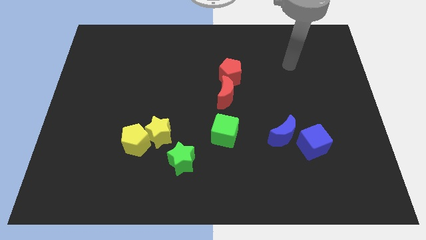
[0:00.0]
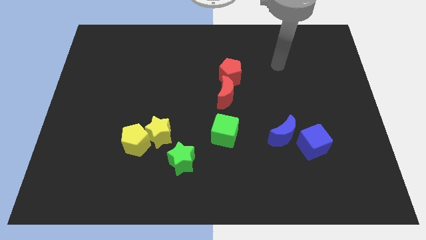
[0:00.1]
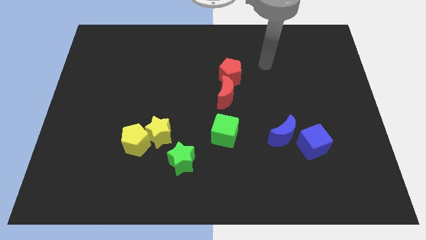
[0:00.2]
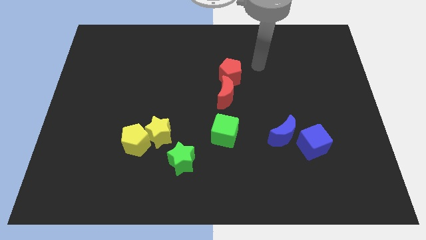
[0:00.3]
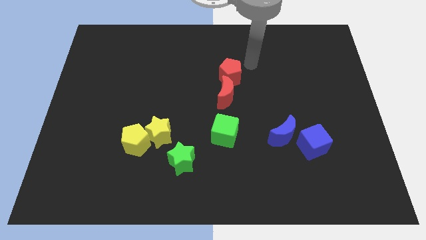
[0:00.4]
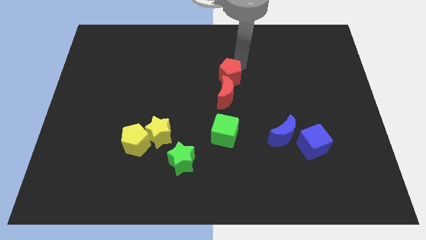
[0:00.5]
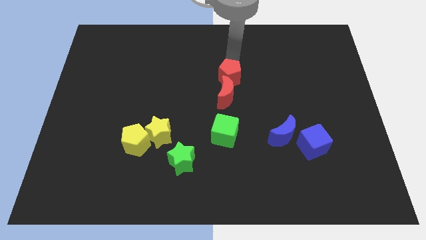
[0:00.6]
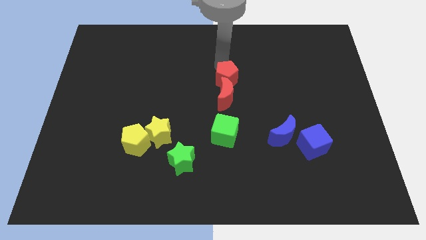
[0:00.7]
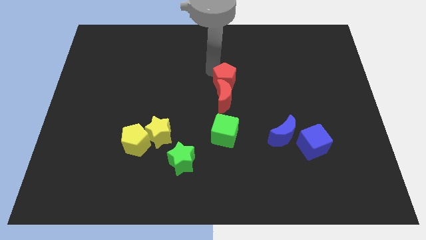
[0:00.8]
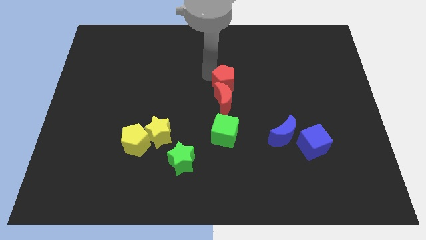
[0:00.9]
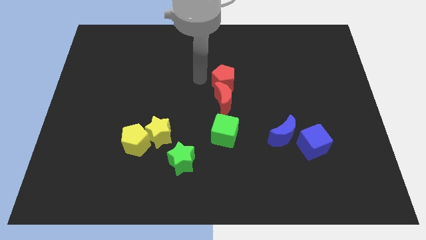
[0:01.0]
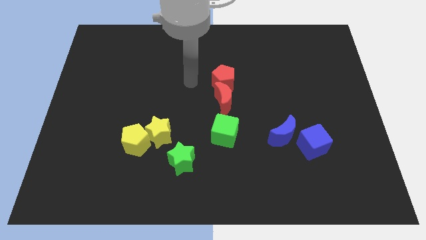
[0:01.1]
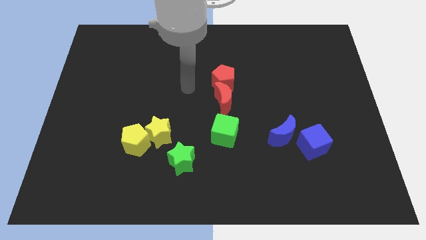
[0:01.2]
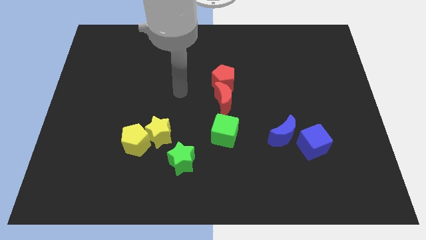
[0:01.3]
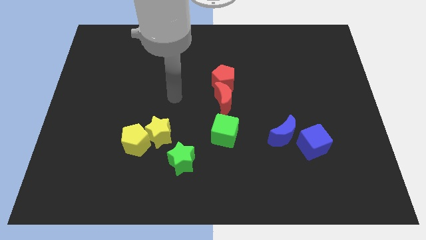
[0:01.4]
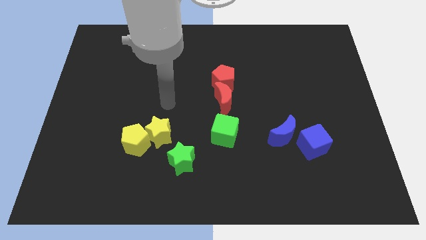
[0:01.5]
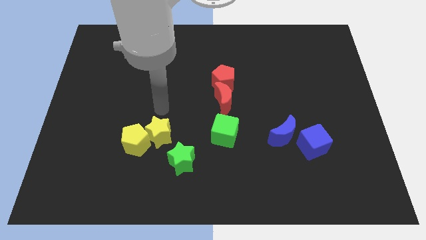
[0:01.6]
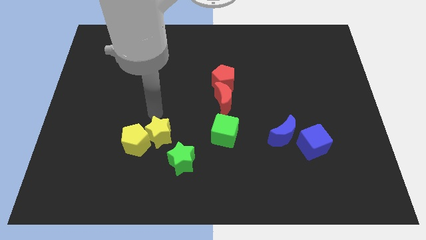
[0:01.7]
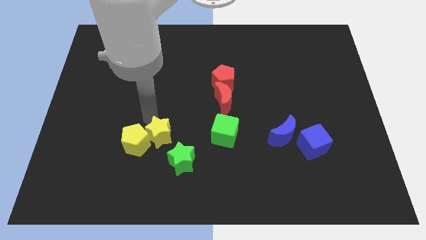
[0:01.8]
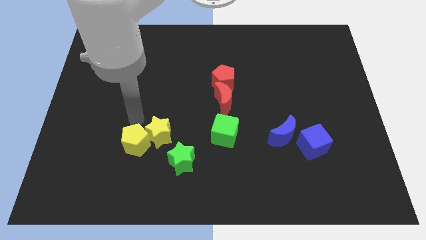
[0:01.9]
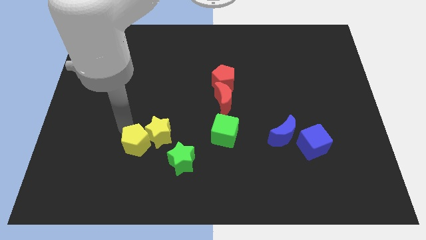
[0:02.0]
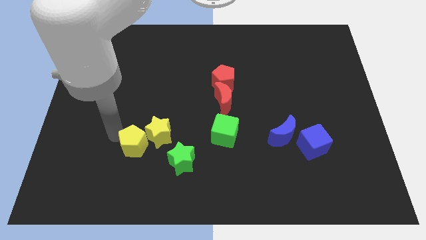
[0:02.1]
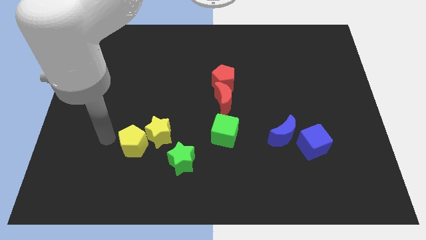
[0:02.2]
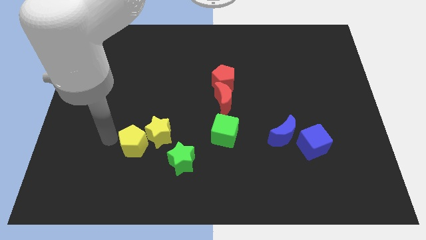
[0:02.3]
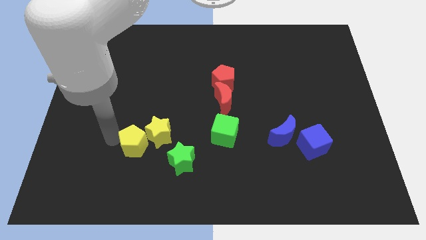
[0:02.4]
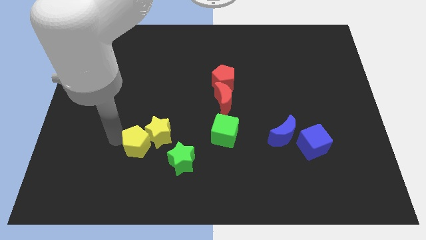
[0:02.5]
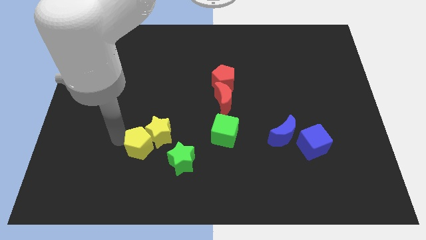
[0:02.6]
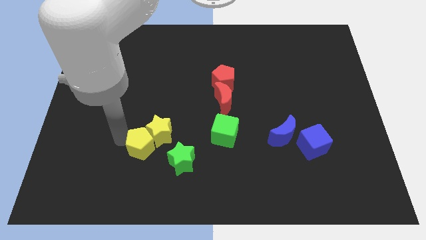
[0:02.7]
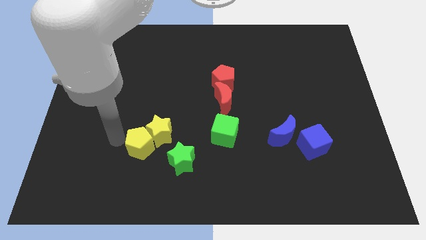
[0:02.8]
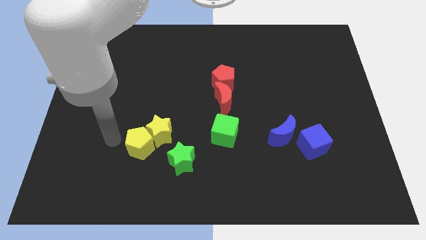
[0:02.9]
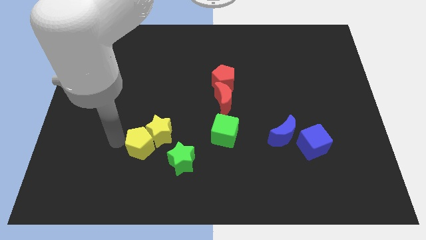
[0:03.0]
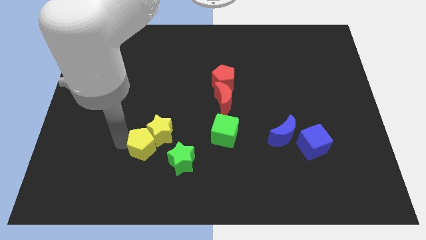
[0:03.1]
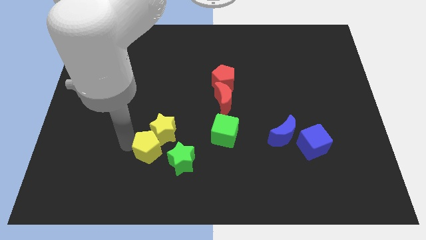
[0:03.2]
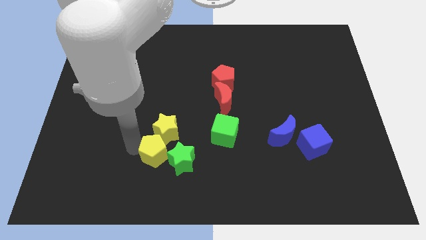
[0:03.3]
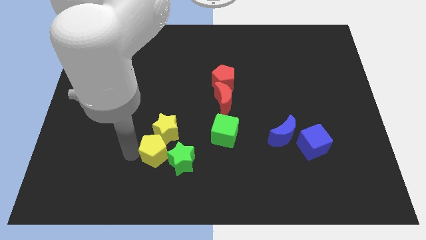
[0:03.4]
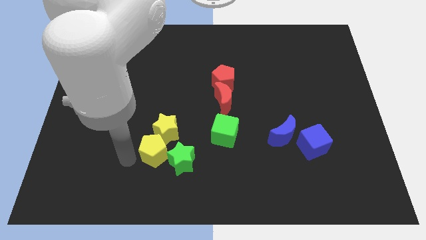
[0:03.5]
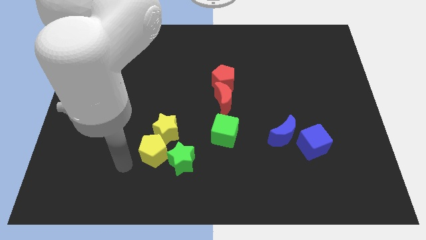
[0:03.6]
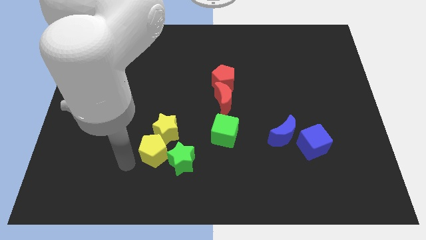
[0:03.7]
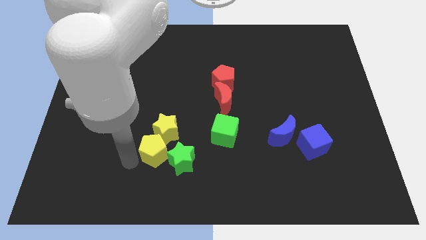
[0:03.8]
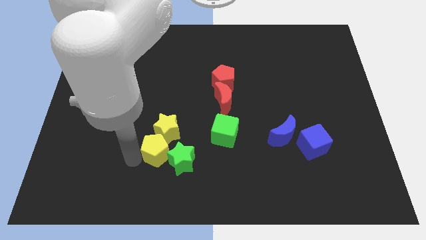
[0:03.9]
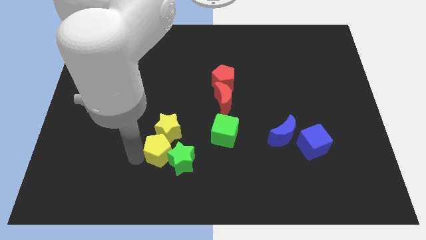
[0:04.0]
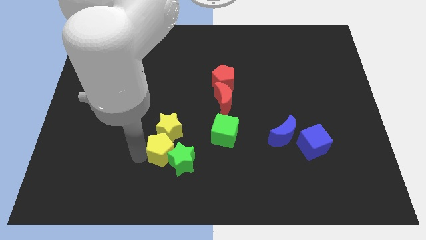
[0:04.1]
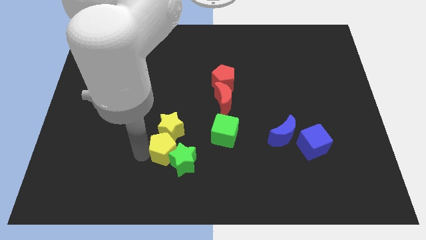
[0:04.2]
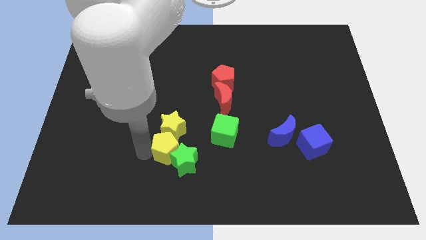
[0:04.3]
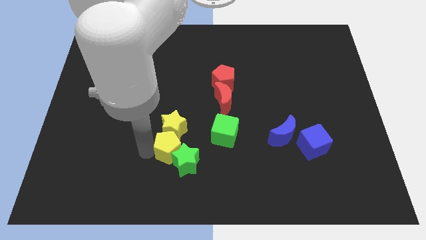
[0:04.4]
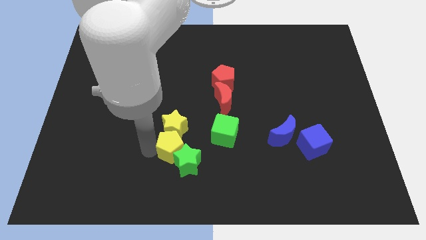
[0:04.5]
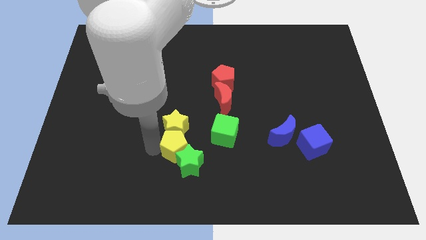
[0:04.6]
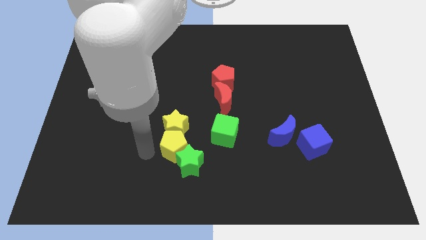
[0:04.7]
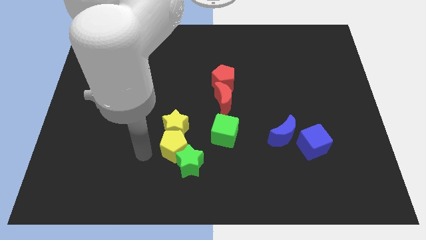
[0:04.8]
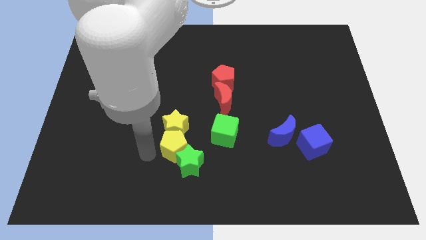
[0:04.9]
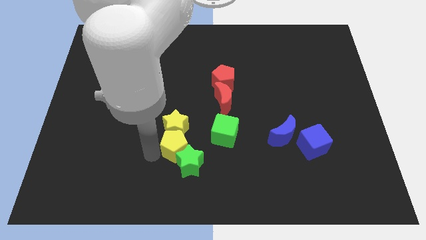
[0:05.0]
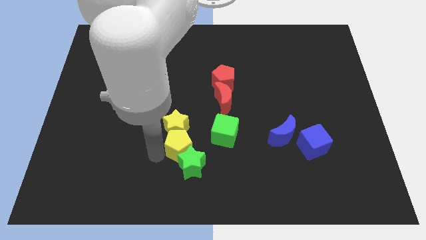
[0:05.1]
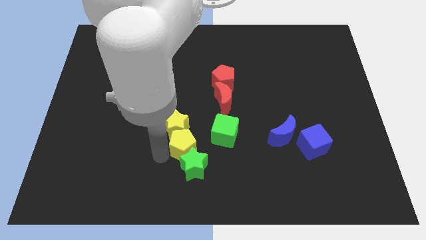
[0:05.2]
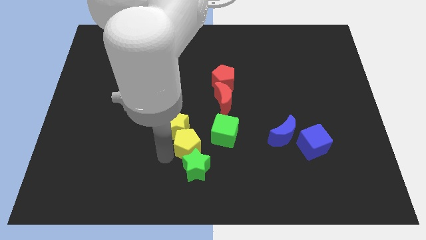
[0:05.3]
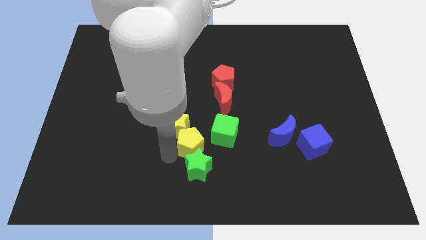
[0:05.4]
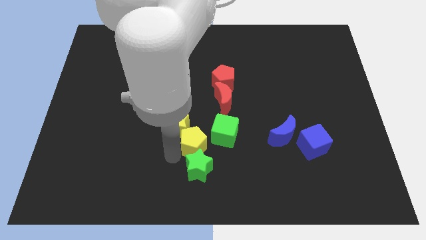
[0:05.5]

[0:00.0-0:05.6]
push the yellow pentagon to the top right of the green star

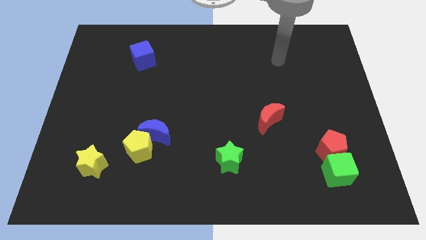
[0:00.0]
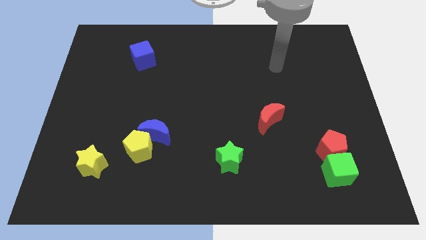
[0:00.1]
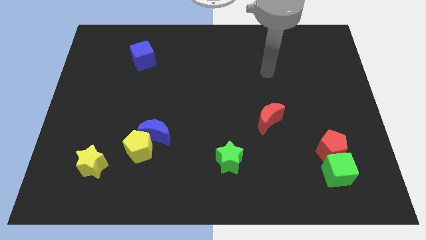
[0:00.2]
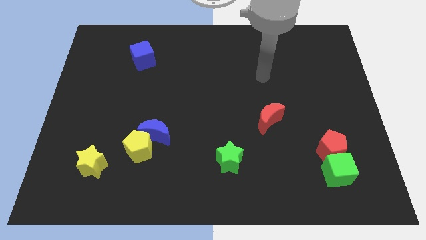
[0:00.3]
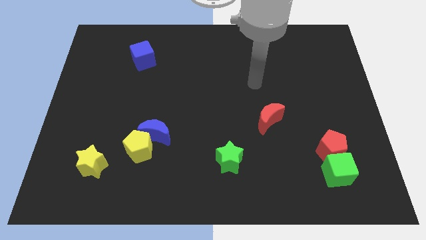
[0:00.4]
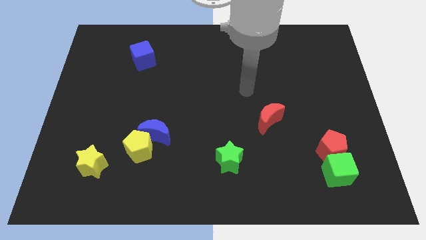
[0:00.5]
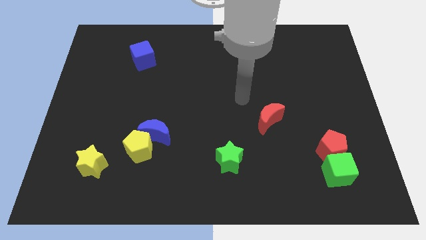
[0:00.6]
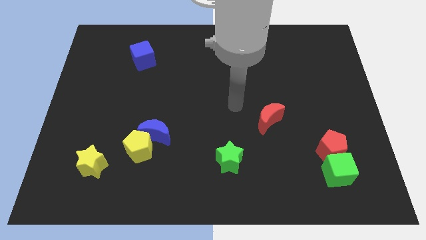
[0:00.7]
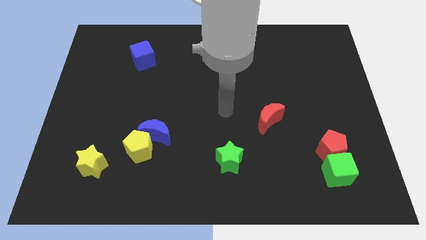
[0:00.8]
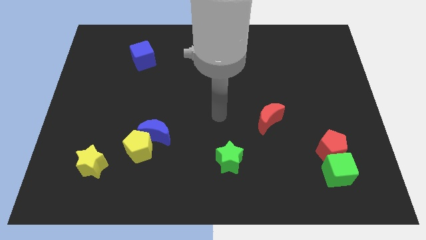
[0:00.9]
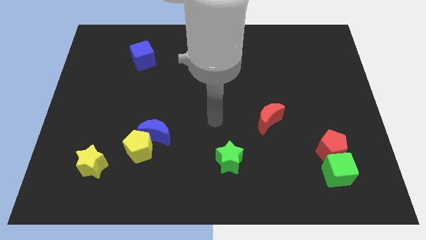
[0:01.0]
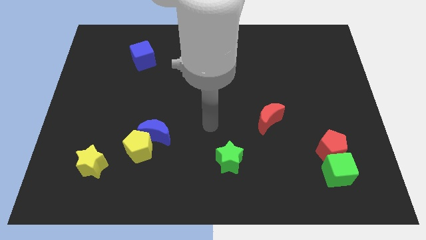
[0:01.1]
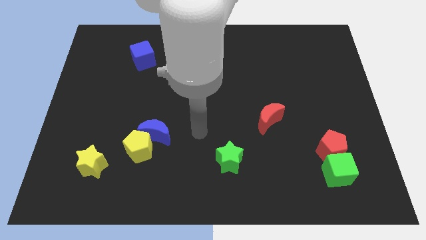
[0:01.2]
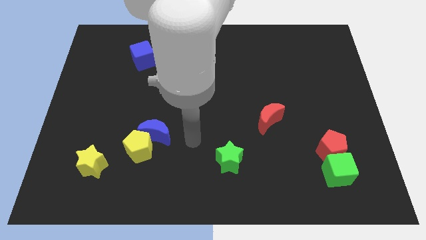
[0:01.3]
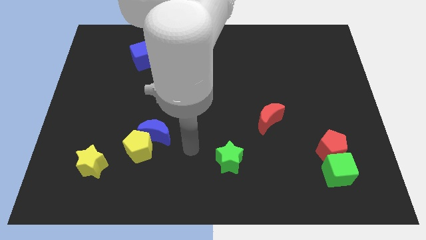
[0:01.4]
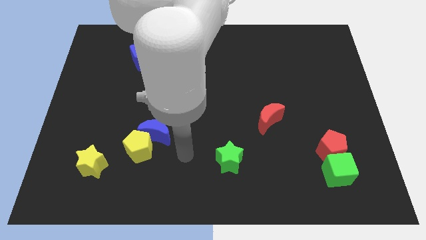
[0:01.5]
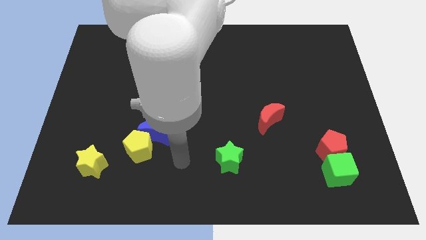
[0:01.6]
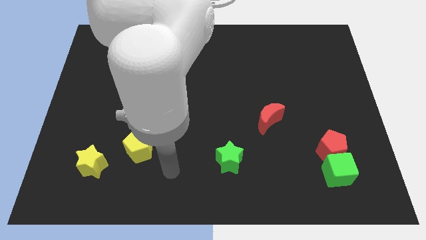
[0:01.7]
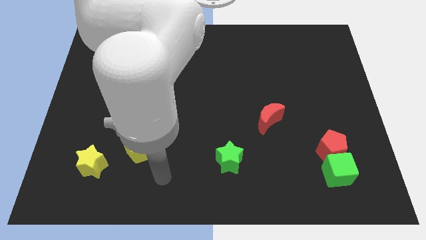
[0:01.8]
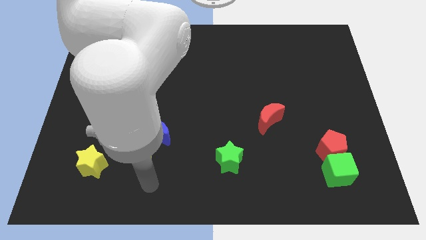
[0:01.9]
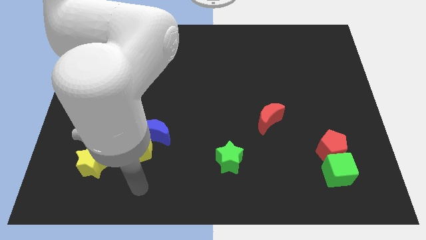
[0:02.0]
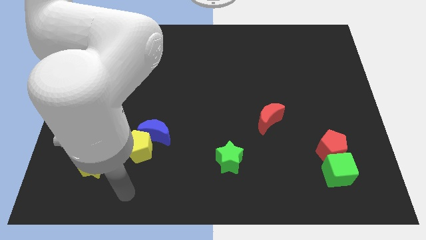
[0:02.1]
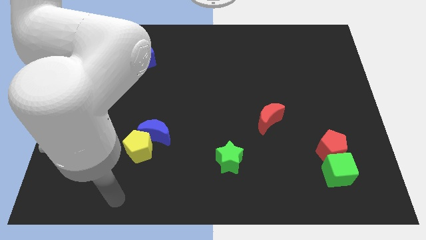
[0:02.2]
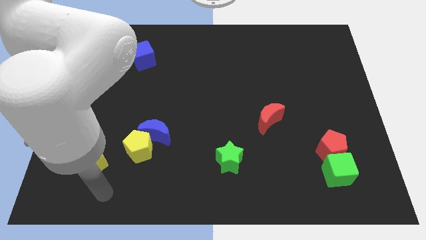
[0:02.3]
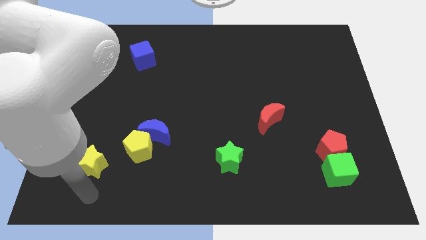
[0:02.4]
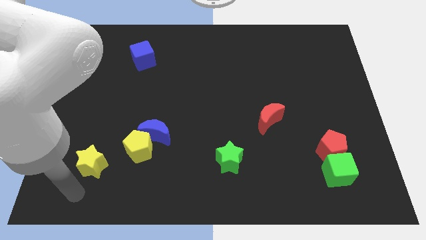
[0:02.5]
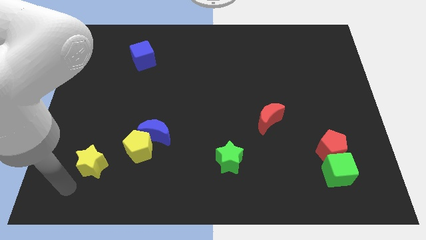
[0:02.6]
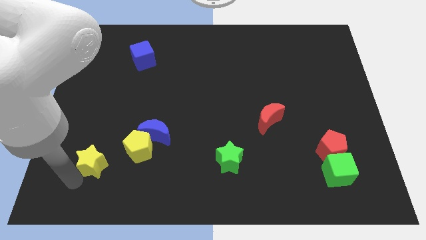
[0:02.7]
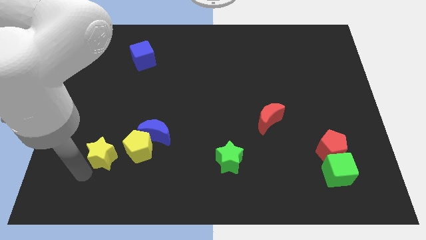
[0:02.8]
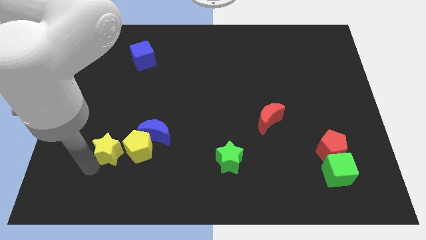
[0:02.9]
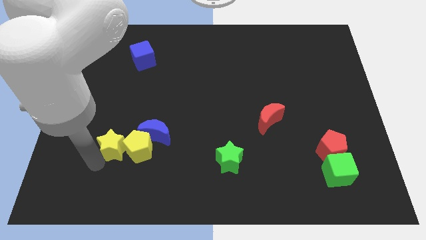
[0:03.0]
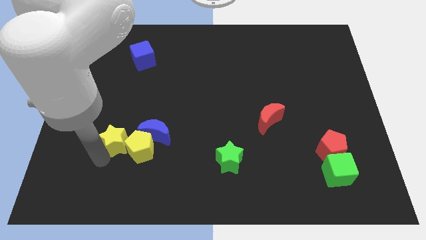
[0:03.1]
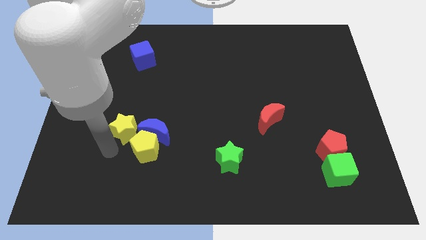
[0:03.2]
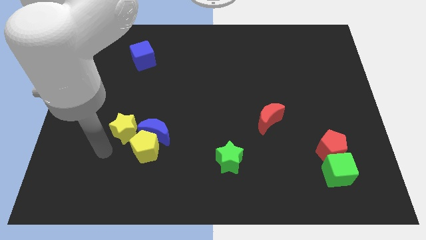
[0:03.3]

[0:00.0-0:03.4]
put the yellow star to the top of the yellow pentagon
